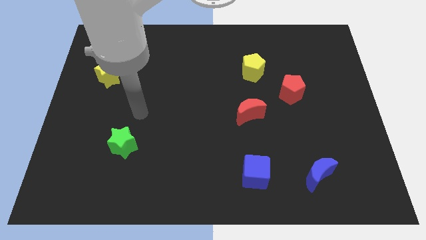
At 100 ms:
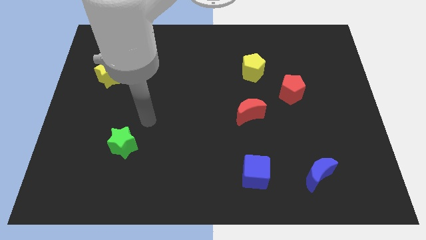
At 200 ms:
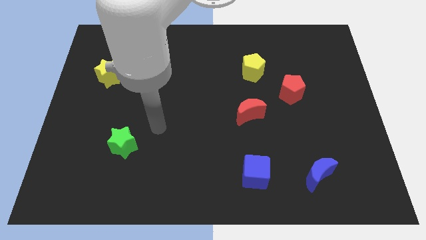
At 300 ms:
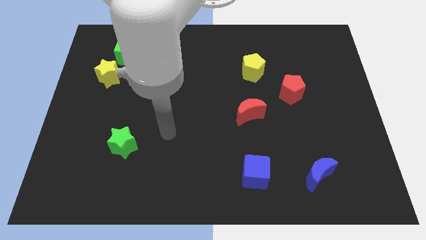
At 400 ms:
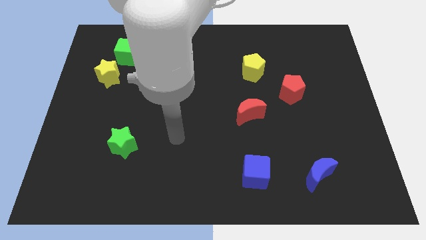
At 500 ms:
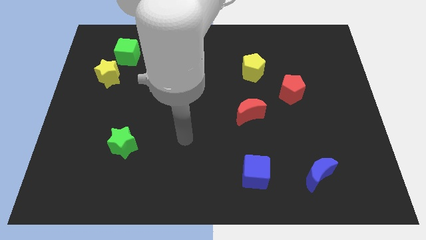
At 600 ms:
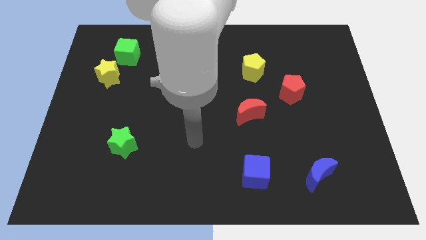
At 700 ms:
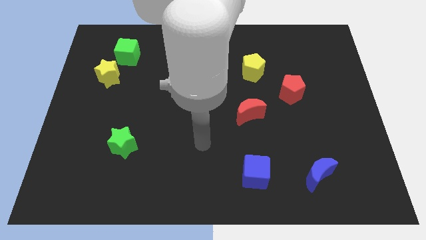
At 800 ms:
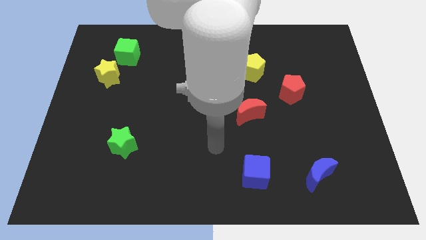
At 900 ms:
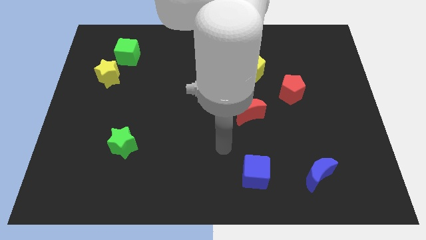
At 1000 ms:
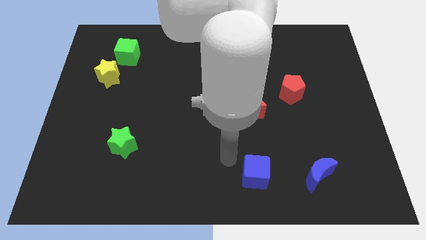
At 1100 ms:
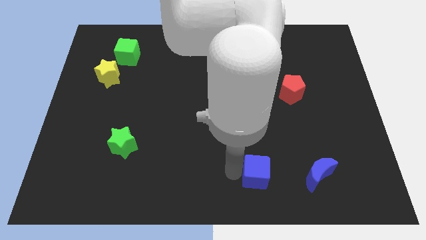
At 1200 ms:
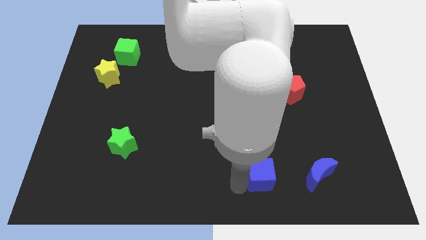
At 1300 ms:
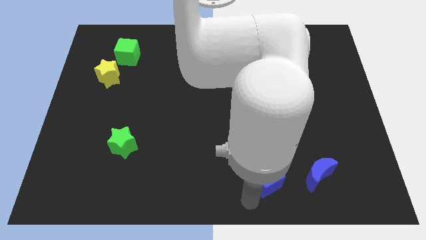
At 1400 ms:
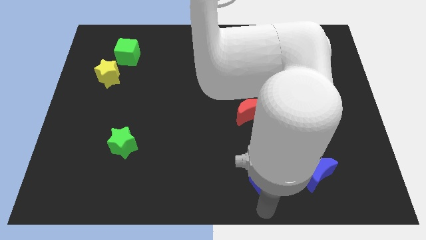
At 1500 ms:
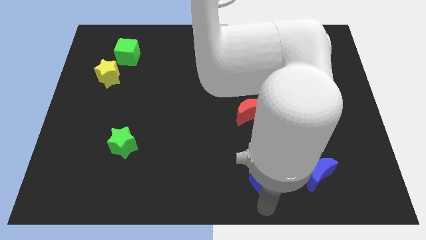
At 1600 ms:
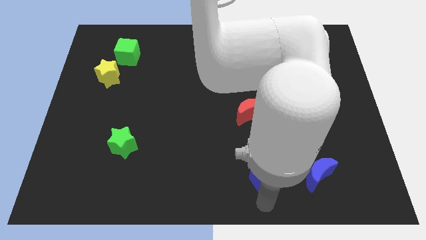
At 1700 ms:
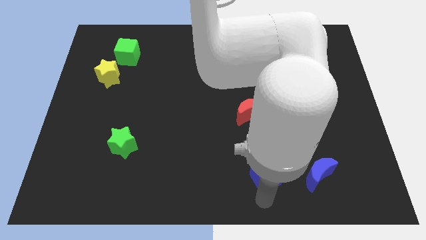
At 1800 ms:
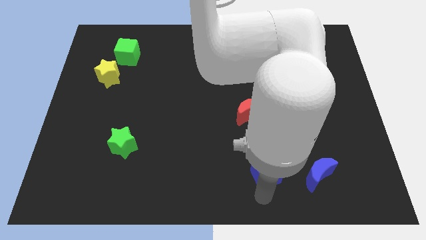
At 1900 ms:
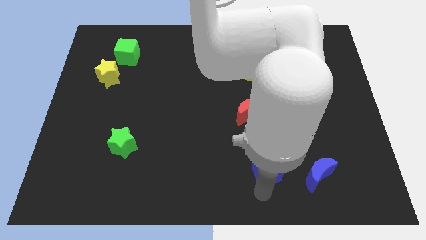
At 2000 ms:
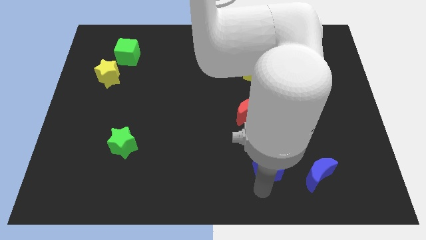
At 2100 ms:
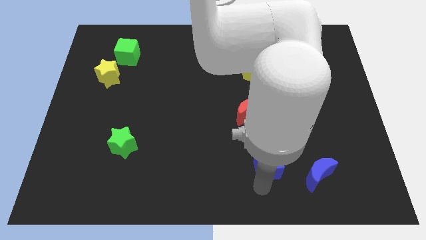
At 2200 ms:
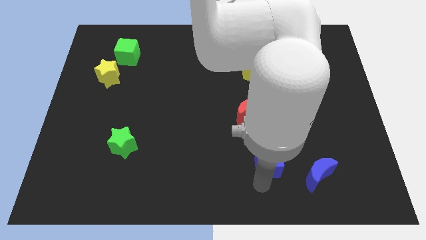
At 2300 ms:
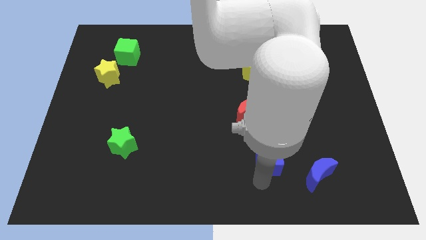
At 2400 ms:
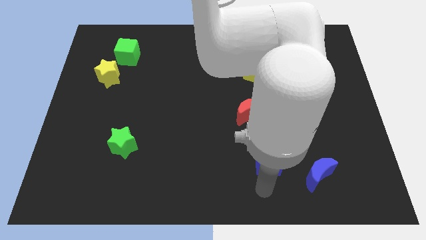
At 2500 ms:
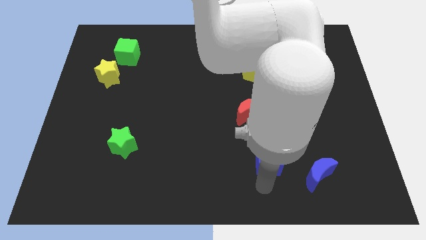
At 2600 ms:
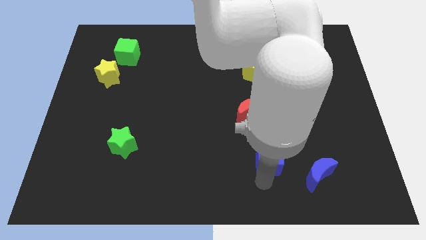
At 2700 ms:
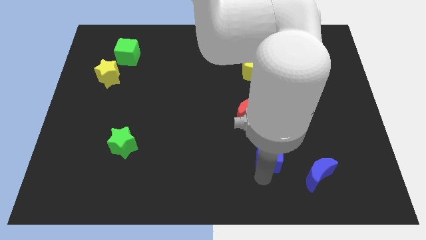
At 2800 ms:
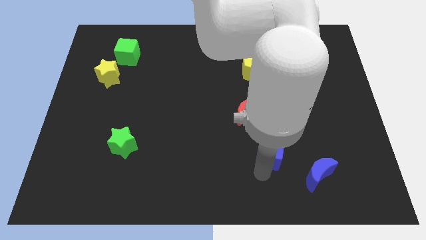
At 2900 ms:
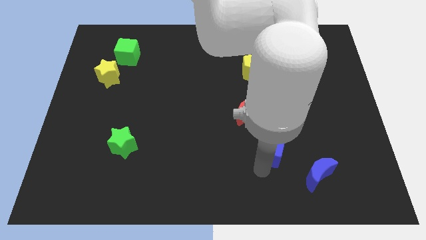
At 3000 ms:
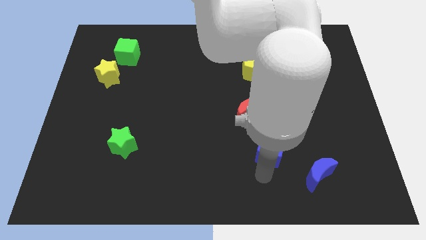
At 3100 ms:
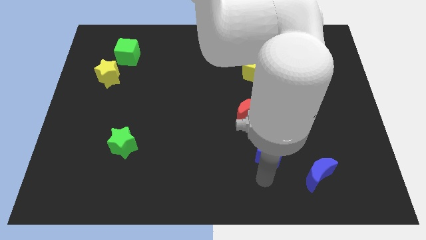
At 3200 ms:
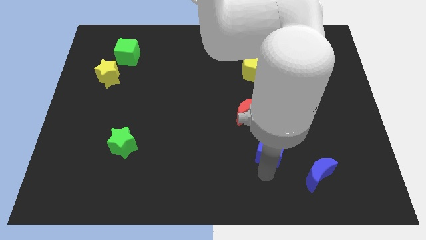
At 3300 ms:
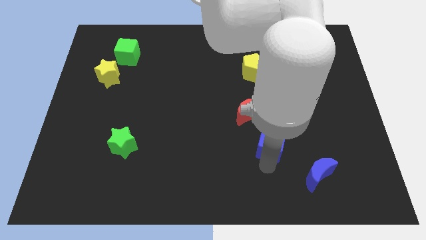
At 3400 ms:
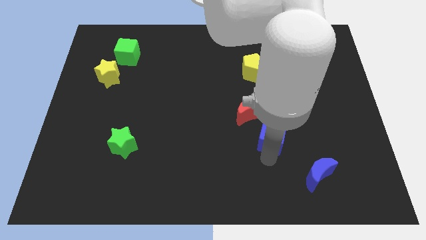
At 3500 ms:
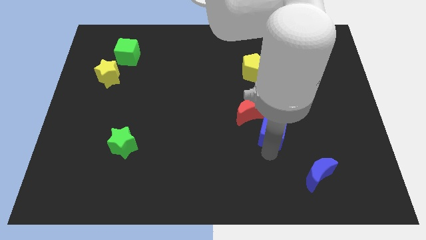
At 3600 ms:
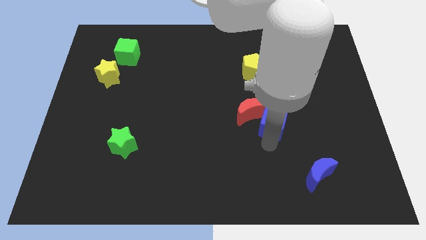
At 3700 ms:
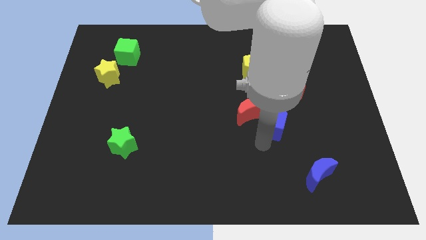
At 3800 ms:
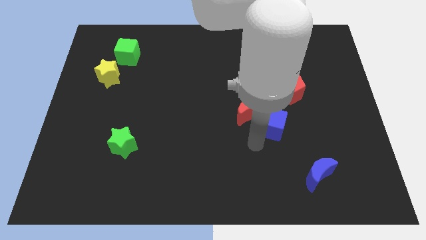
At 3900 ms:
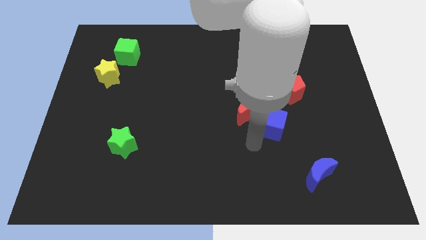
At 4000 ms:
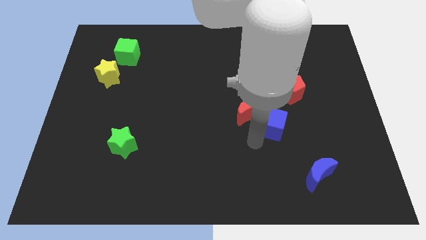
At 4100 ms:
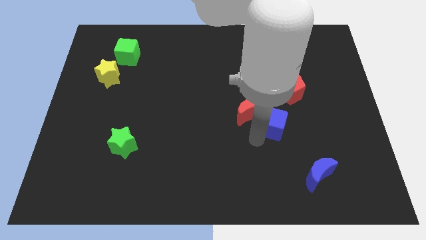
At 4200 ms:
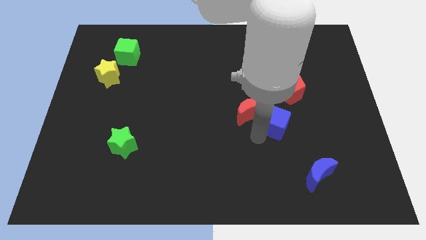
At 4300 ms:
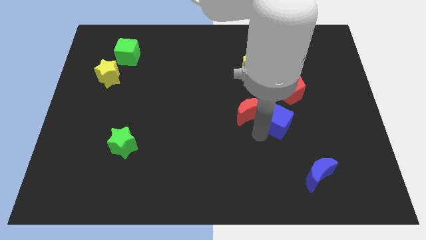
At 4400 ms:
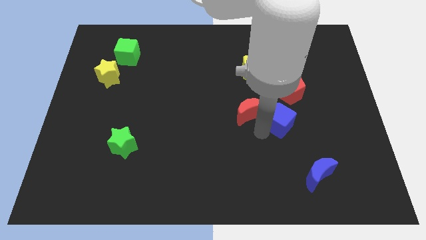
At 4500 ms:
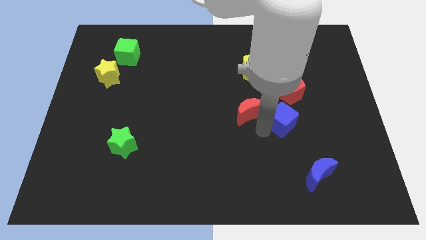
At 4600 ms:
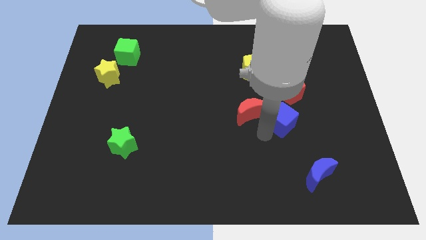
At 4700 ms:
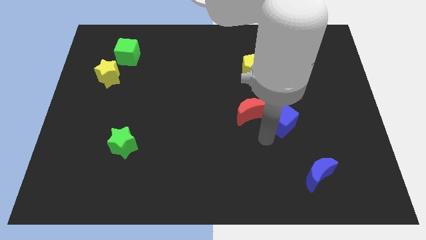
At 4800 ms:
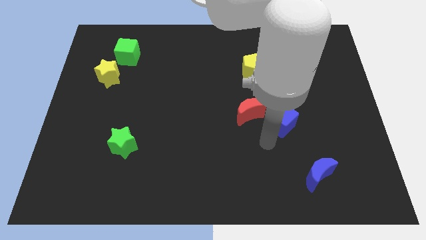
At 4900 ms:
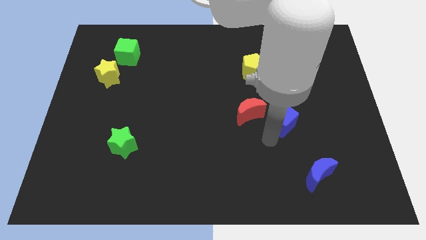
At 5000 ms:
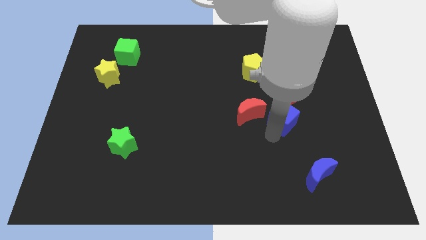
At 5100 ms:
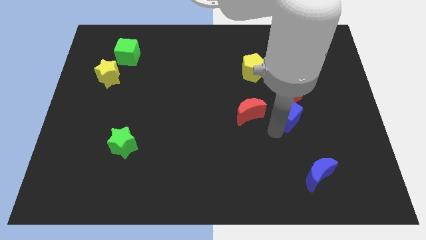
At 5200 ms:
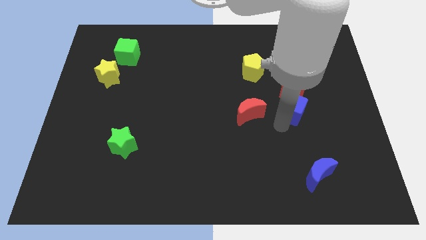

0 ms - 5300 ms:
move the blue cube next to the red pentagon

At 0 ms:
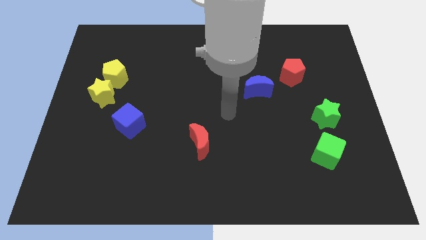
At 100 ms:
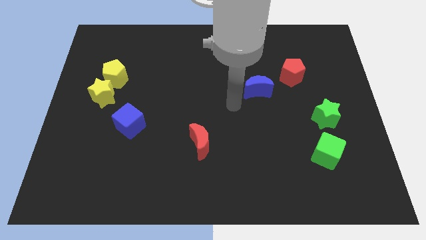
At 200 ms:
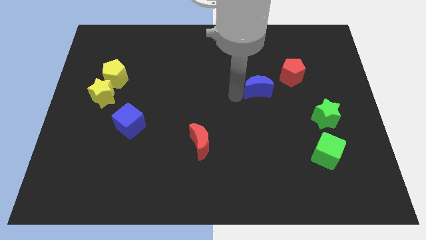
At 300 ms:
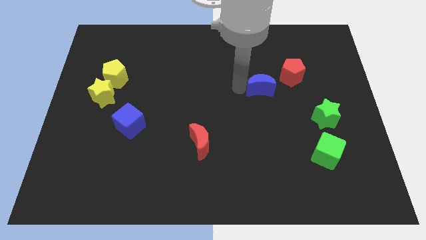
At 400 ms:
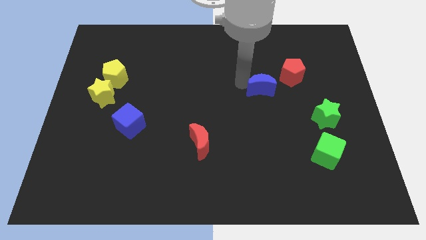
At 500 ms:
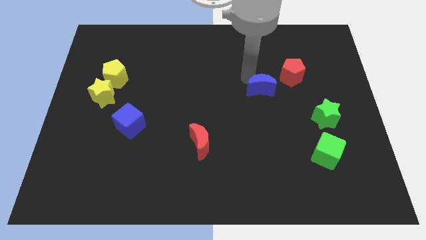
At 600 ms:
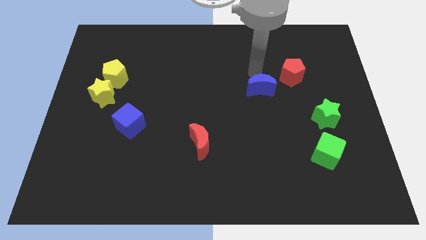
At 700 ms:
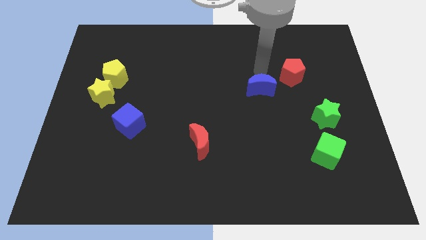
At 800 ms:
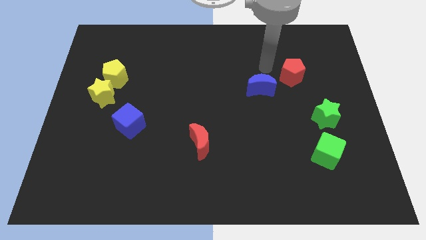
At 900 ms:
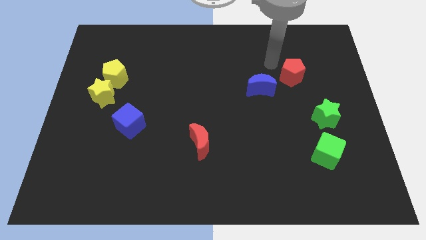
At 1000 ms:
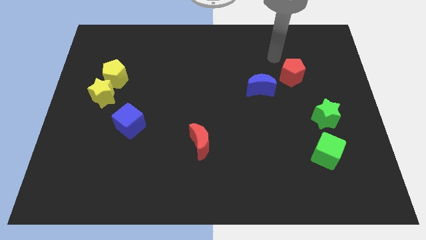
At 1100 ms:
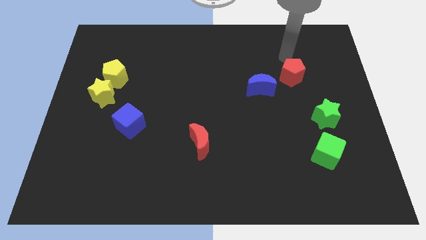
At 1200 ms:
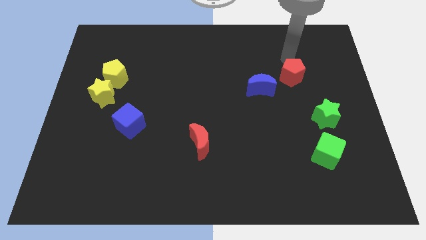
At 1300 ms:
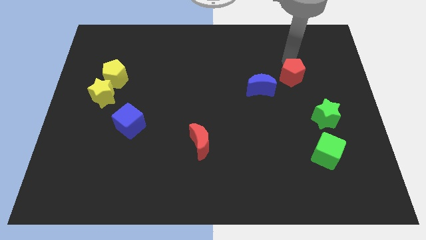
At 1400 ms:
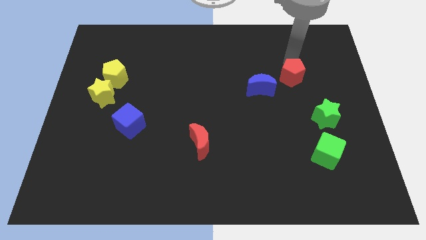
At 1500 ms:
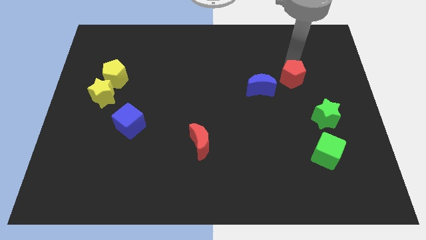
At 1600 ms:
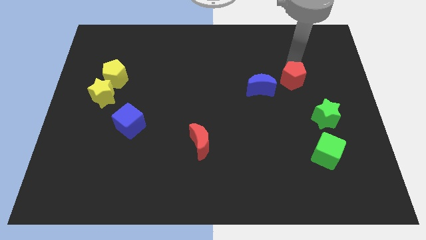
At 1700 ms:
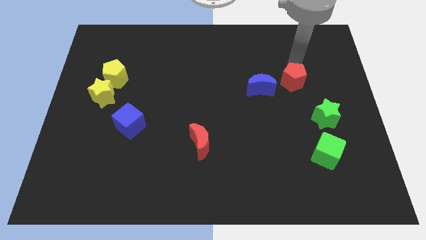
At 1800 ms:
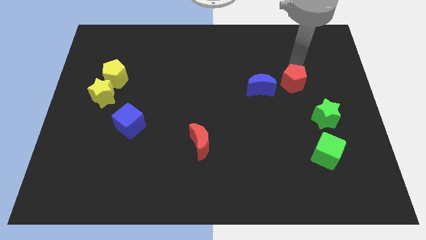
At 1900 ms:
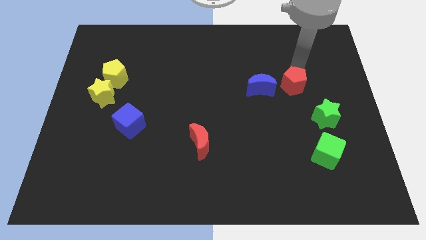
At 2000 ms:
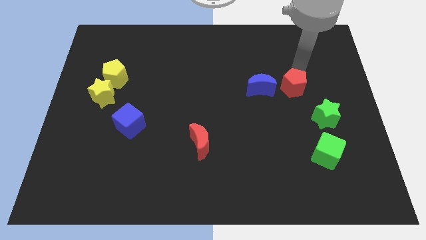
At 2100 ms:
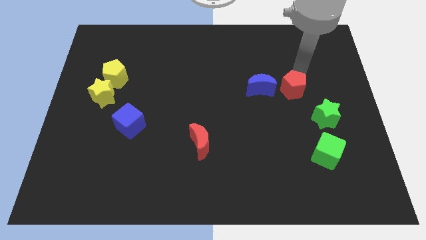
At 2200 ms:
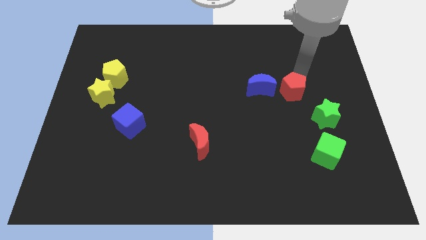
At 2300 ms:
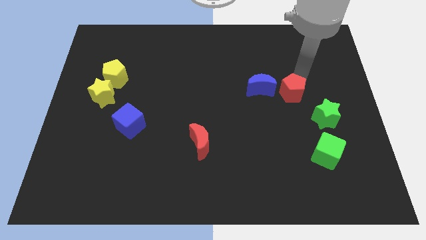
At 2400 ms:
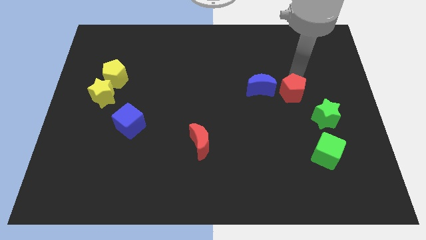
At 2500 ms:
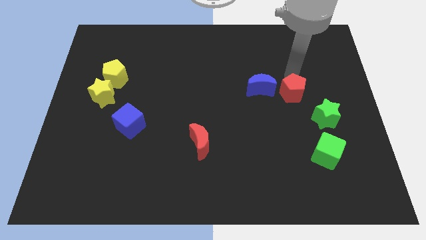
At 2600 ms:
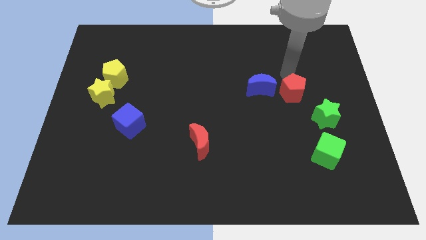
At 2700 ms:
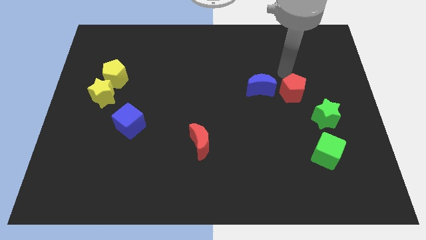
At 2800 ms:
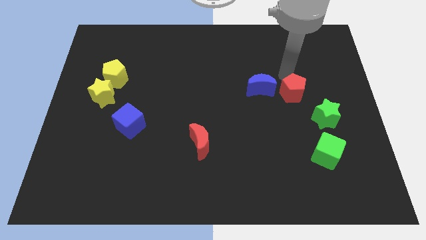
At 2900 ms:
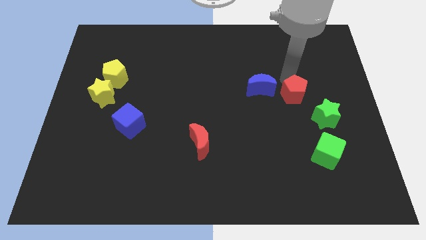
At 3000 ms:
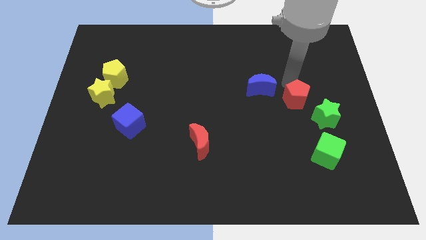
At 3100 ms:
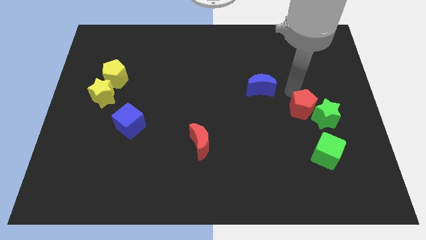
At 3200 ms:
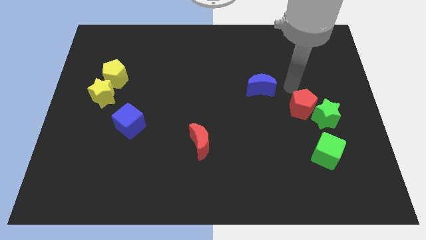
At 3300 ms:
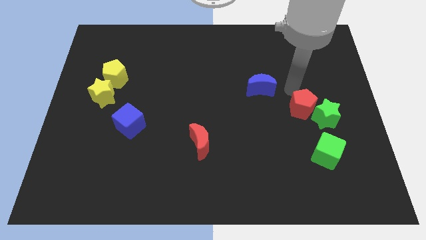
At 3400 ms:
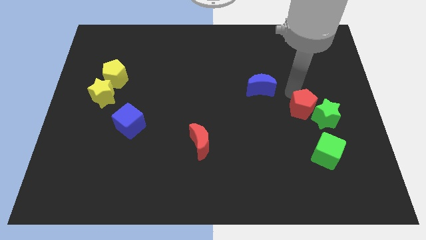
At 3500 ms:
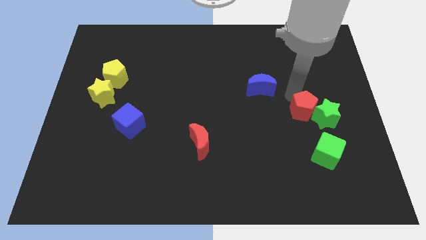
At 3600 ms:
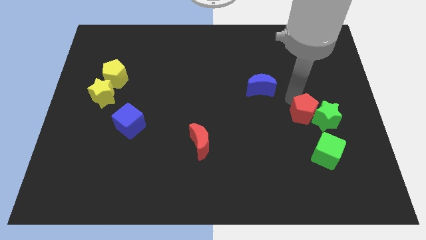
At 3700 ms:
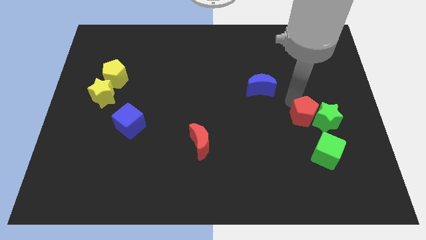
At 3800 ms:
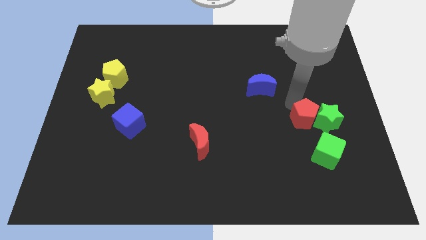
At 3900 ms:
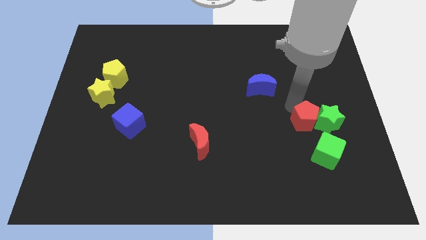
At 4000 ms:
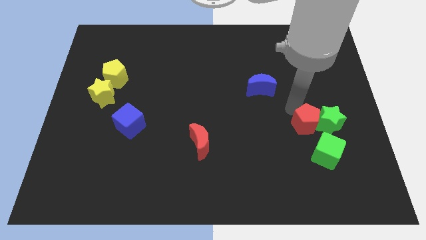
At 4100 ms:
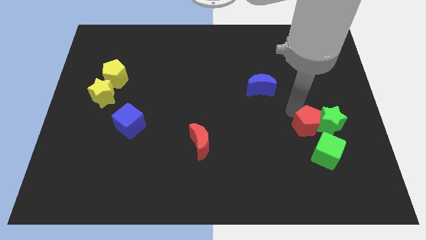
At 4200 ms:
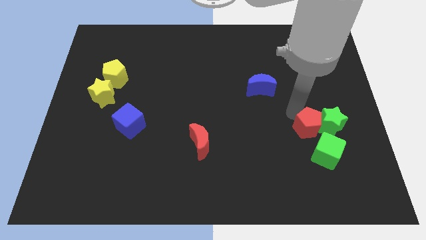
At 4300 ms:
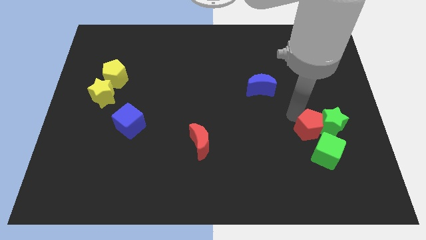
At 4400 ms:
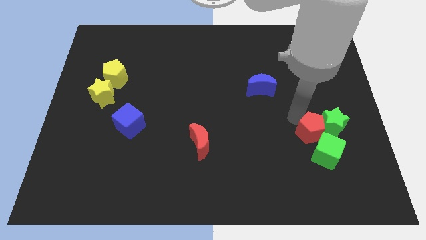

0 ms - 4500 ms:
move the red pentagon close to the green cube
